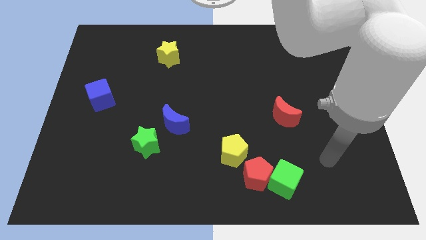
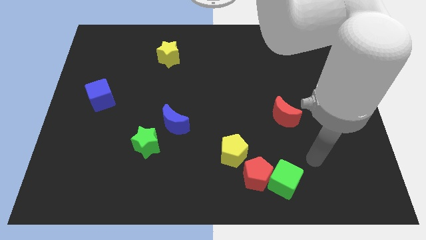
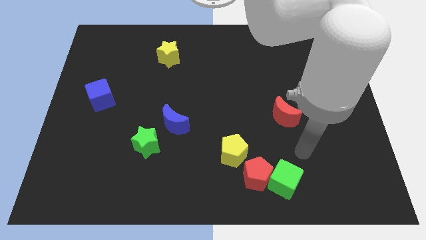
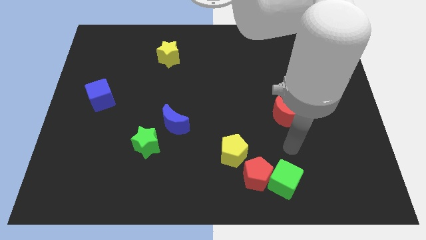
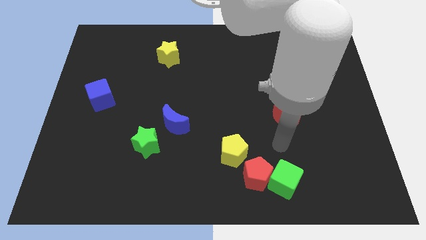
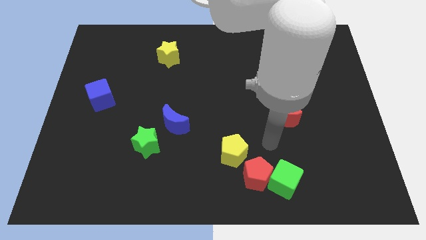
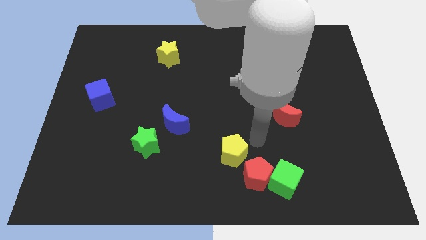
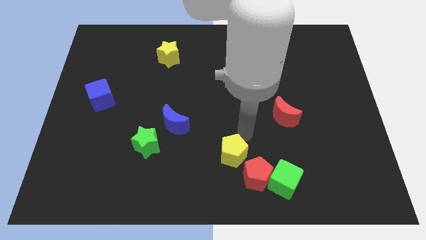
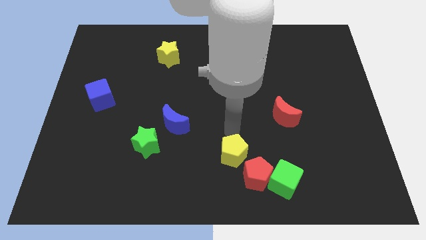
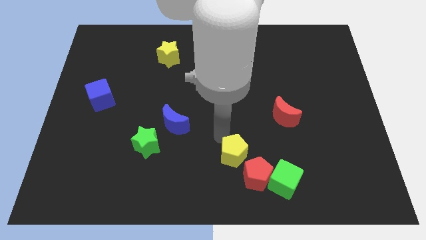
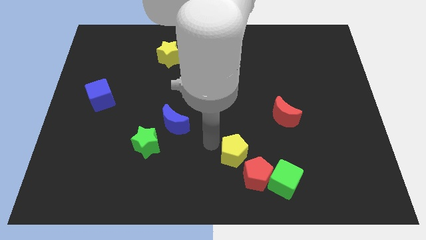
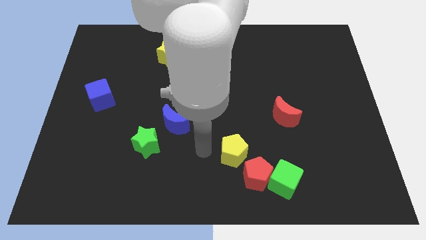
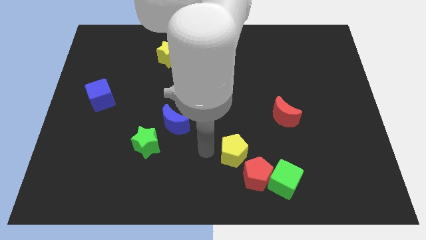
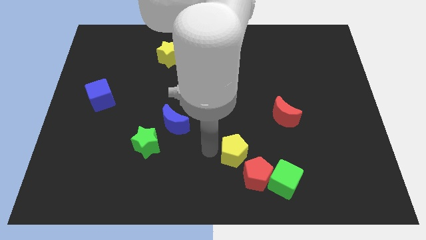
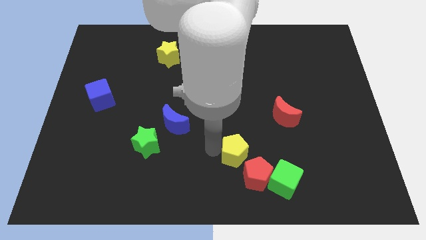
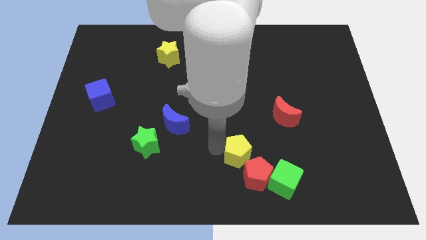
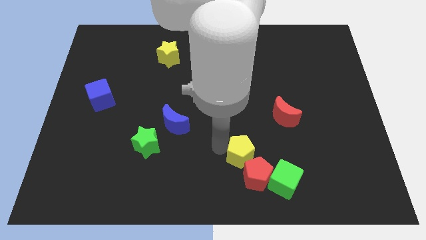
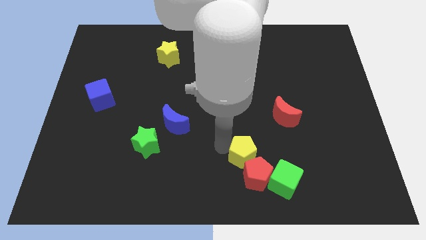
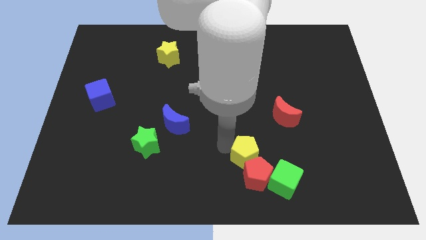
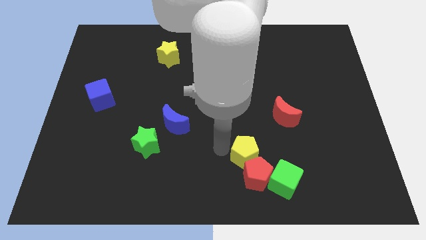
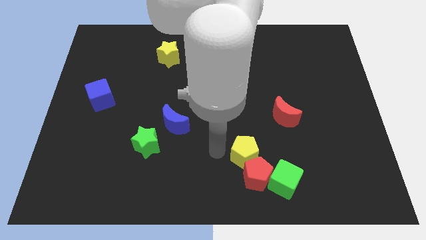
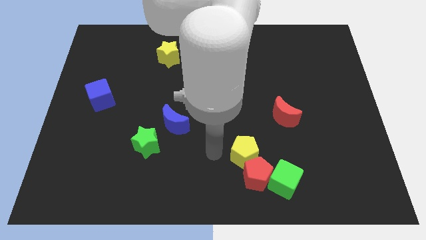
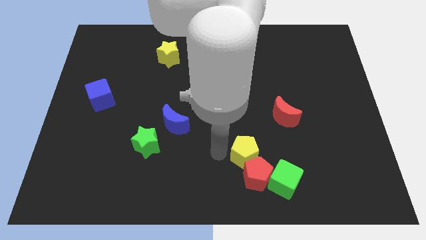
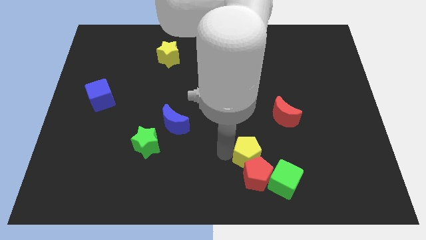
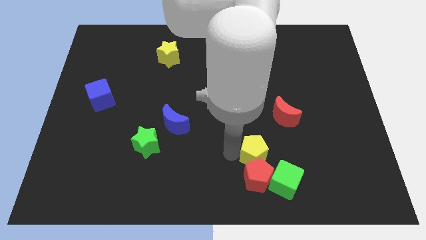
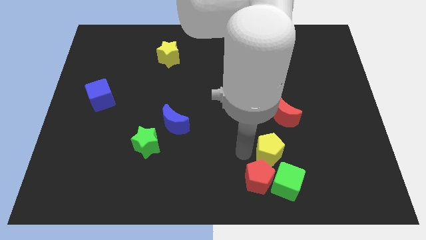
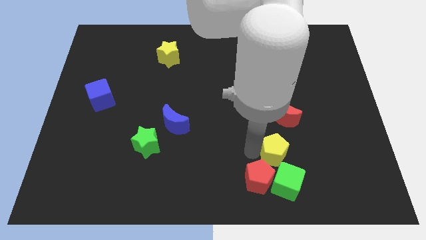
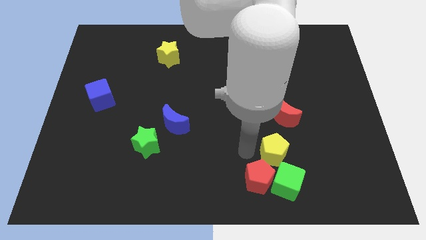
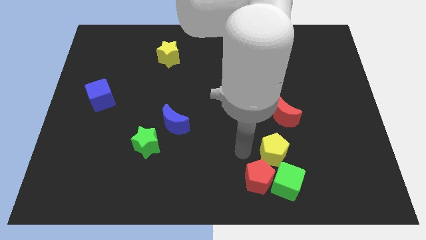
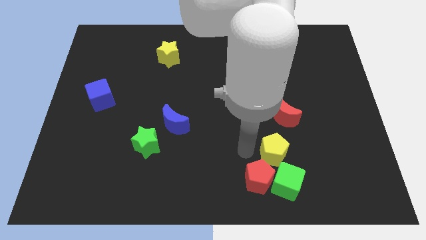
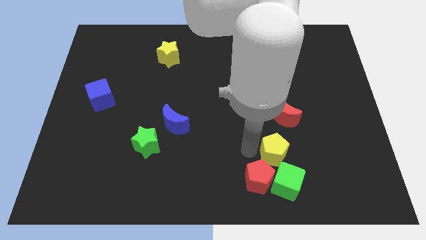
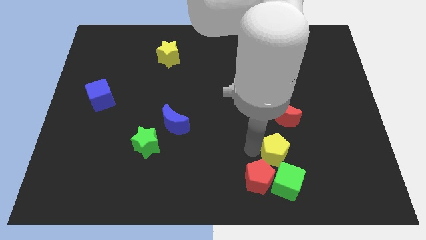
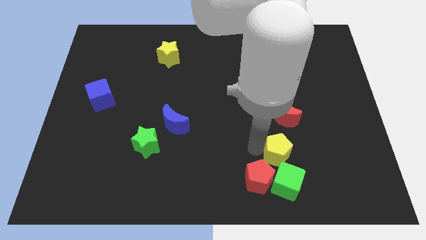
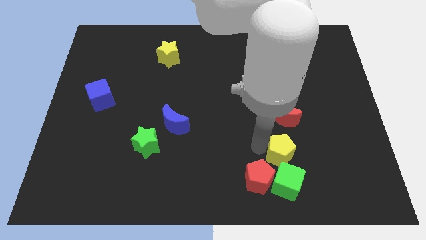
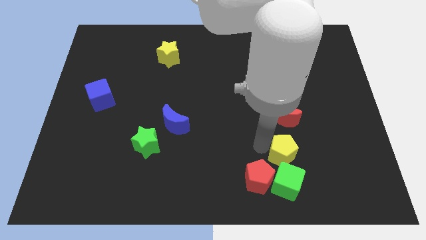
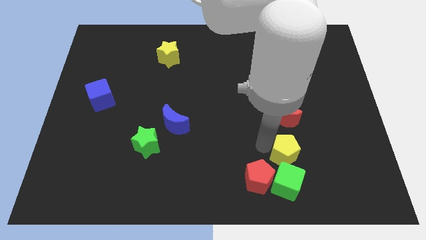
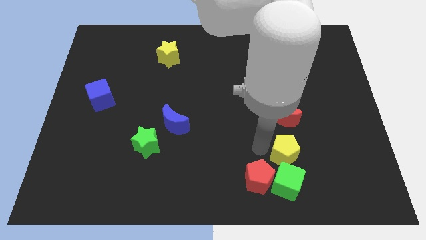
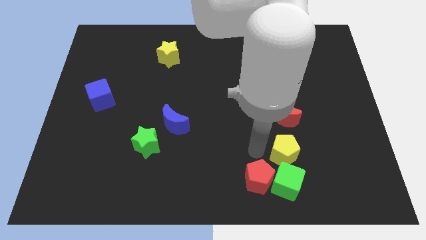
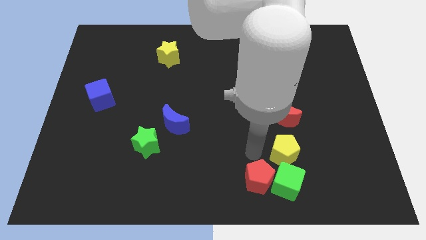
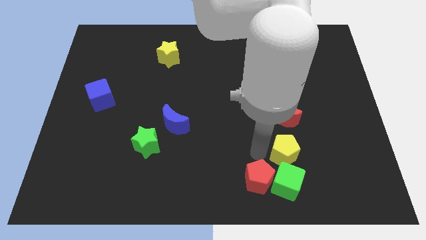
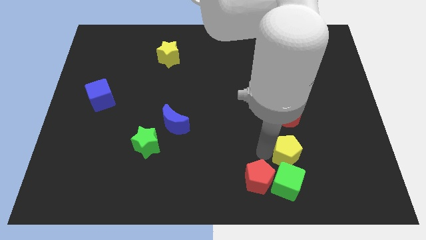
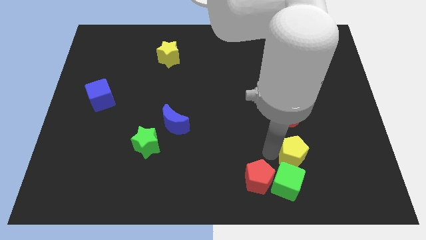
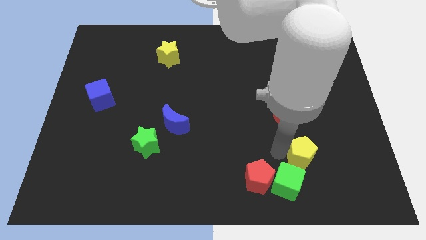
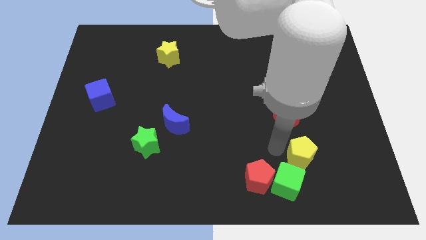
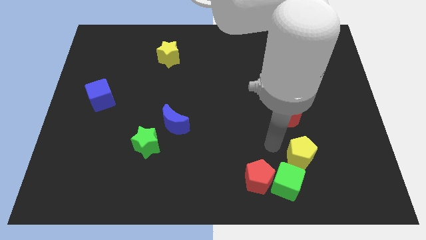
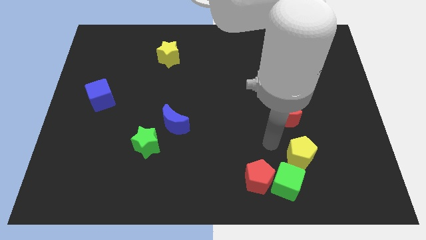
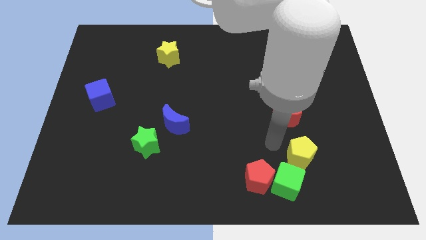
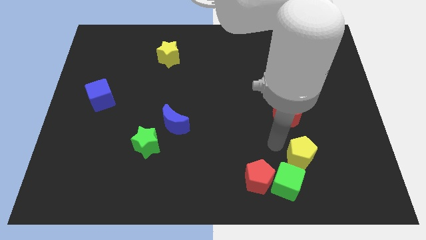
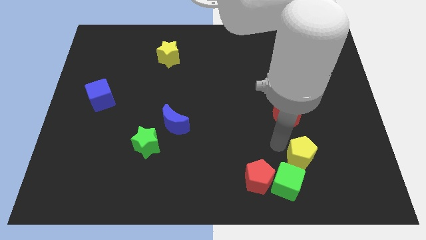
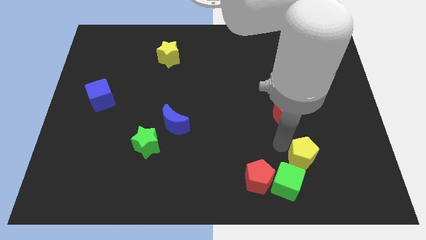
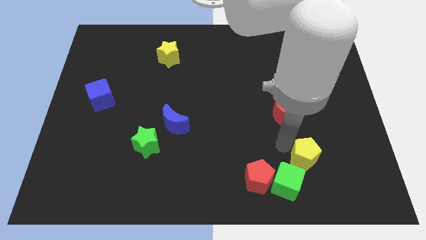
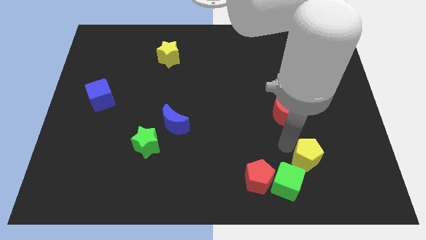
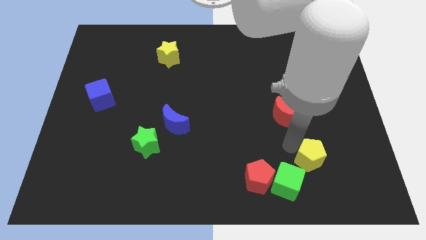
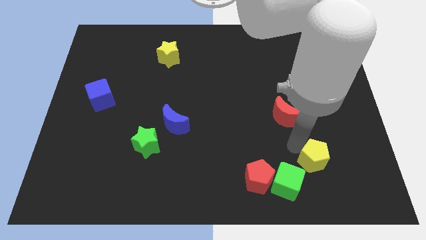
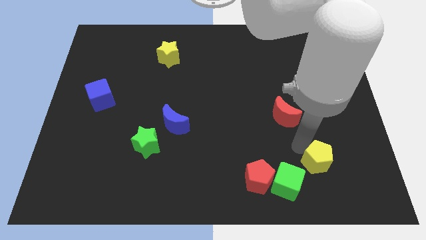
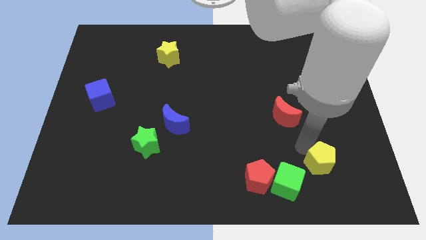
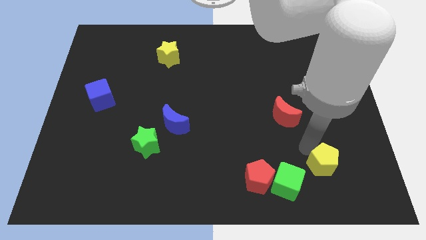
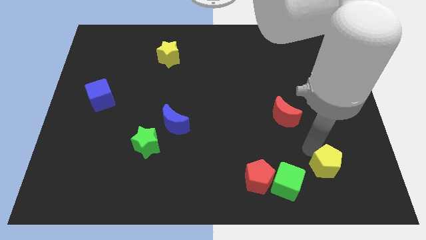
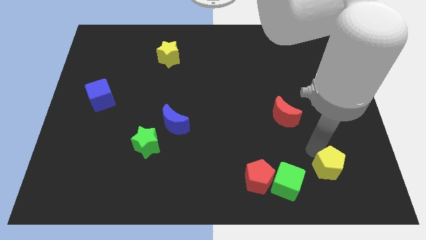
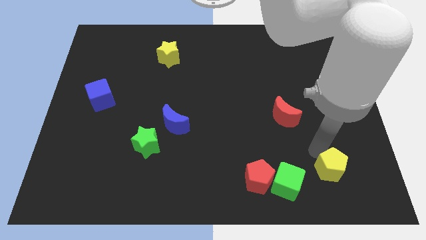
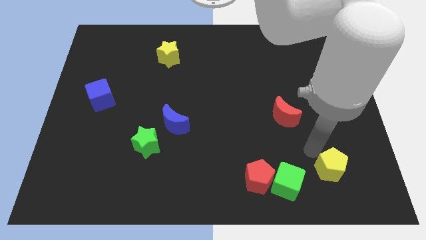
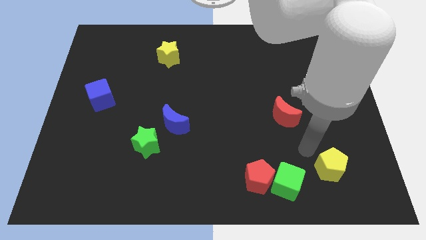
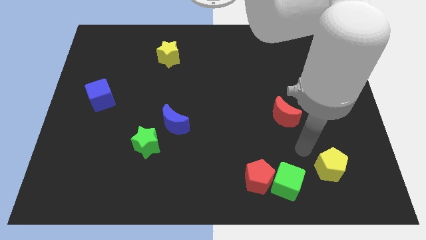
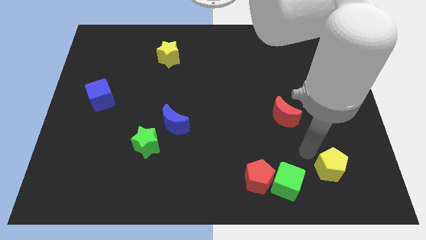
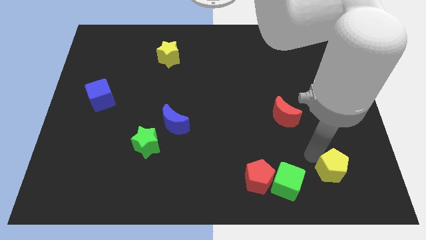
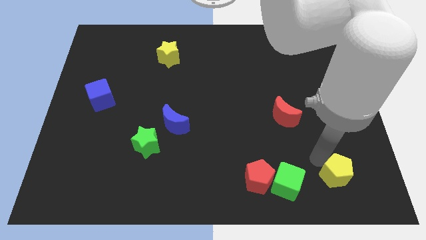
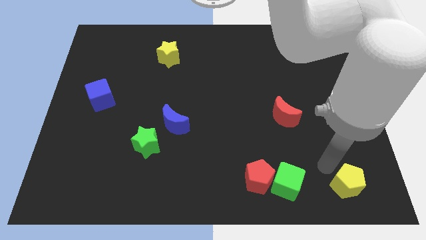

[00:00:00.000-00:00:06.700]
slide the yellow pentagon to the bottom right of the board
